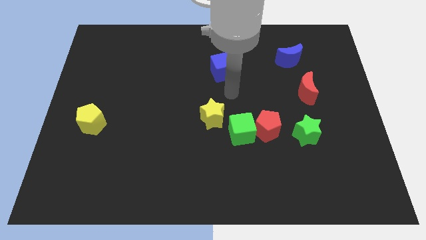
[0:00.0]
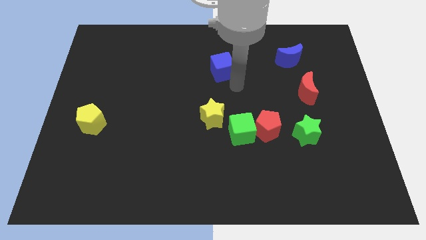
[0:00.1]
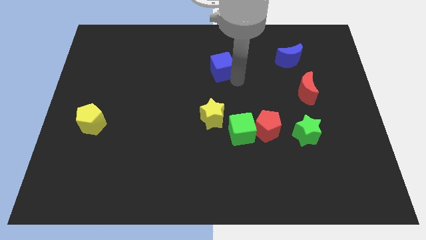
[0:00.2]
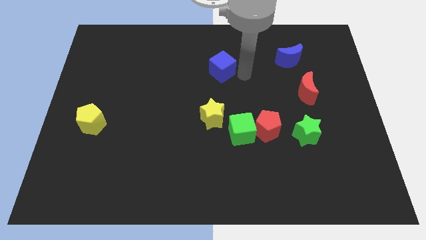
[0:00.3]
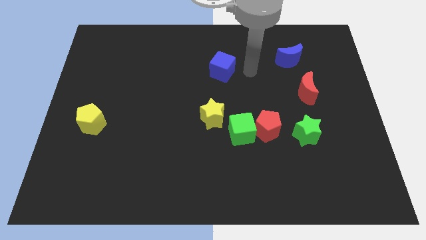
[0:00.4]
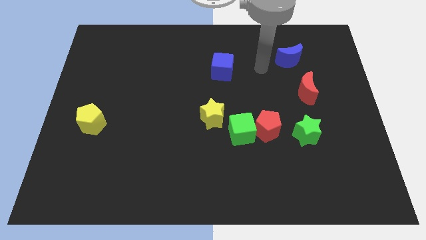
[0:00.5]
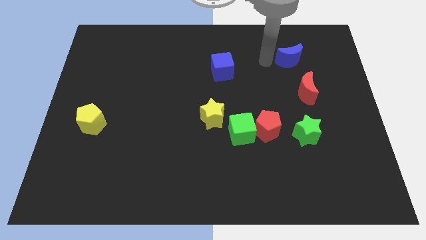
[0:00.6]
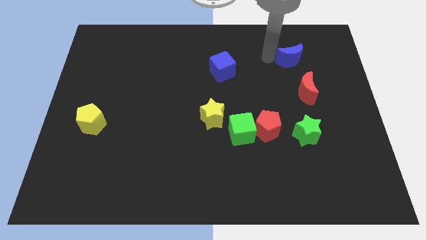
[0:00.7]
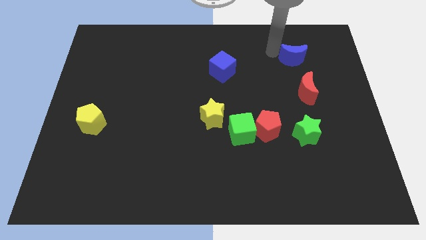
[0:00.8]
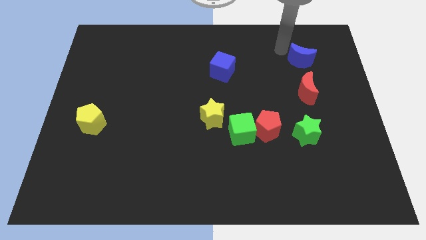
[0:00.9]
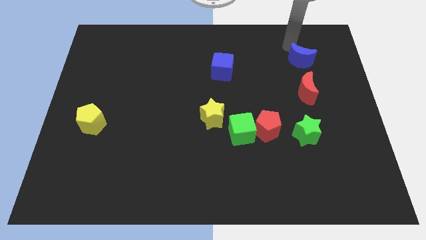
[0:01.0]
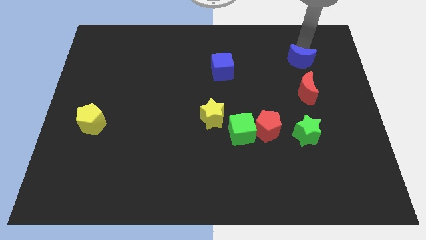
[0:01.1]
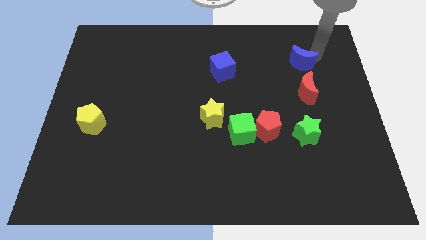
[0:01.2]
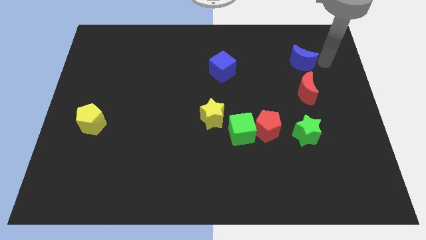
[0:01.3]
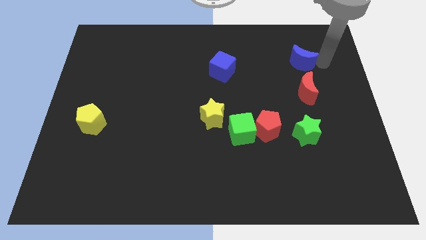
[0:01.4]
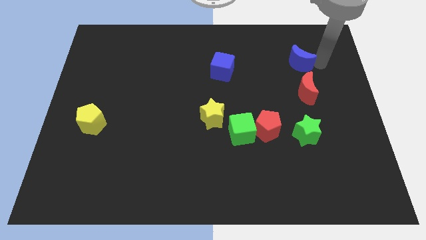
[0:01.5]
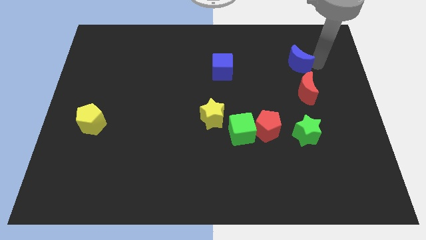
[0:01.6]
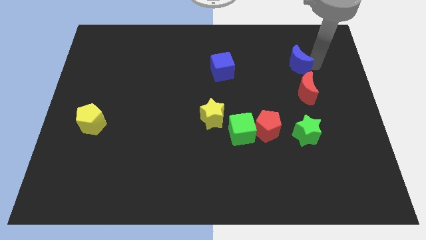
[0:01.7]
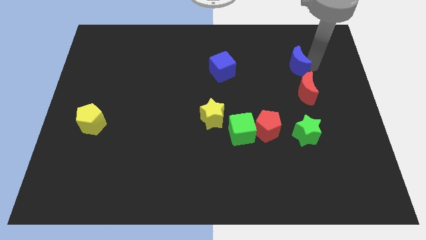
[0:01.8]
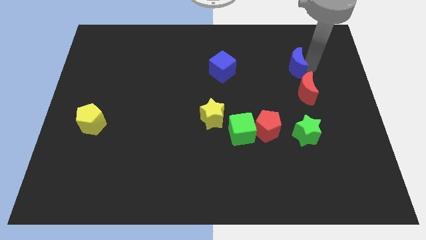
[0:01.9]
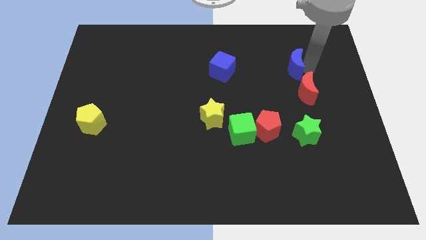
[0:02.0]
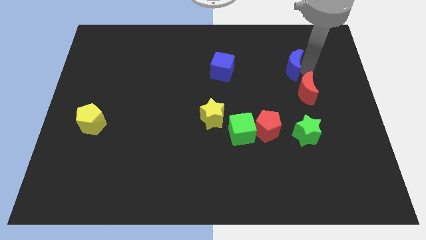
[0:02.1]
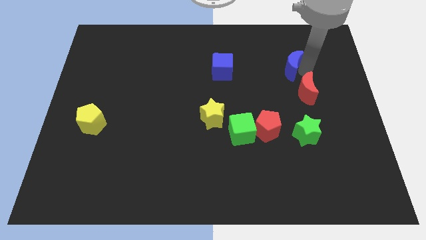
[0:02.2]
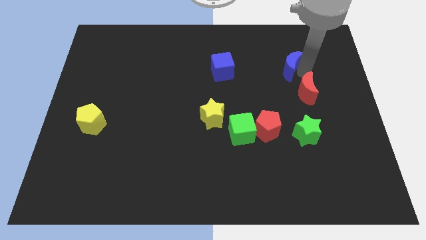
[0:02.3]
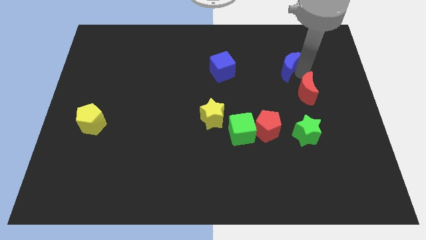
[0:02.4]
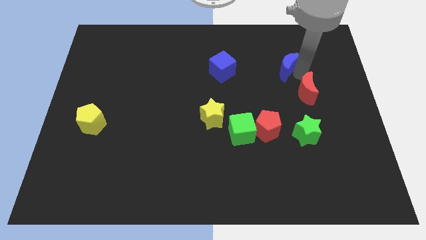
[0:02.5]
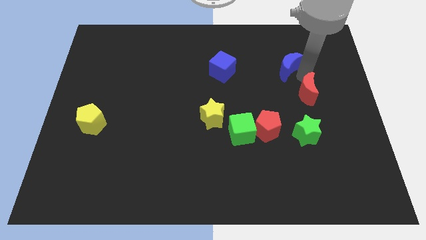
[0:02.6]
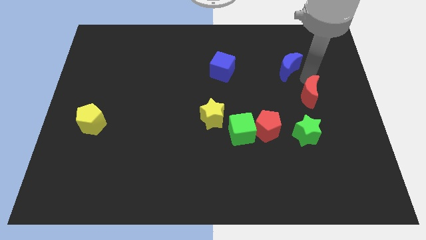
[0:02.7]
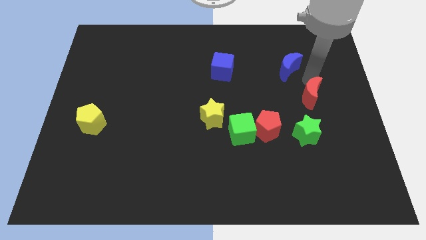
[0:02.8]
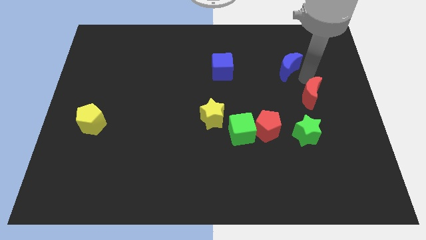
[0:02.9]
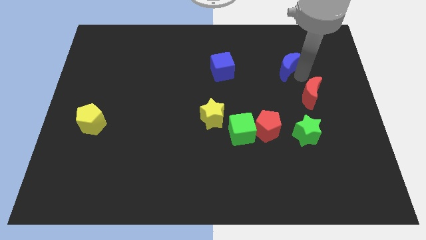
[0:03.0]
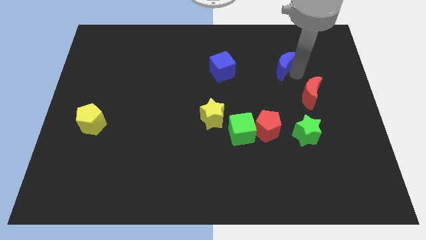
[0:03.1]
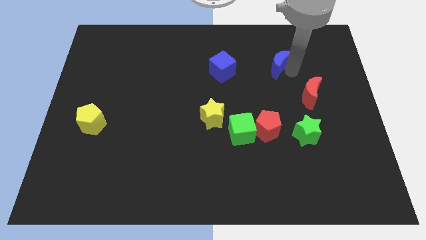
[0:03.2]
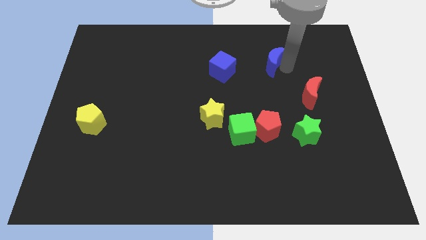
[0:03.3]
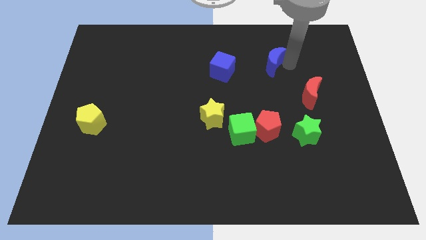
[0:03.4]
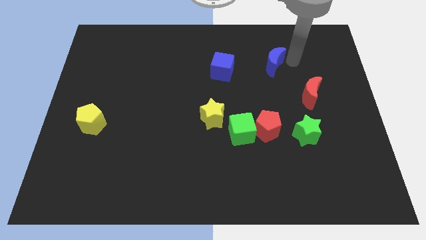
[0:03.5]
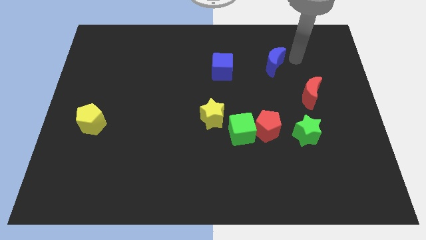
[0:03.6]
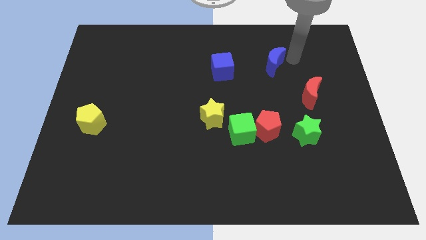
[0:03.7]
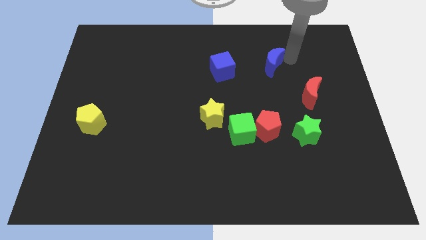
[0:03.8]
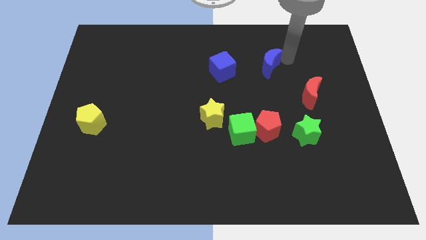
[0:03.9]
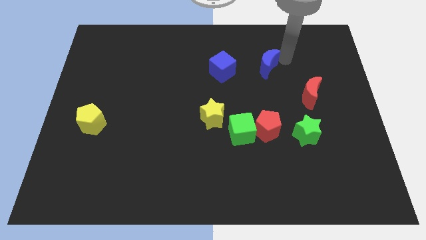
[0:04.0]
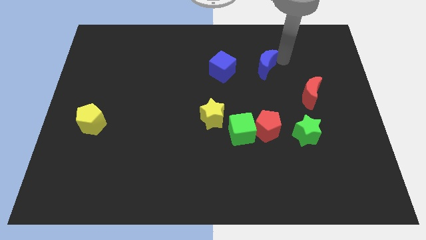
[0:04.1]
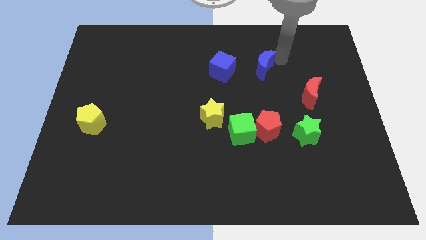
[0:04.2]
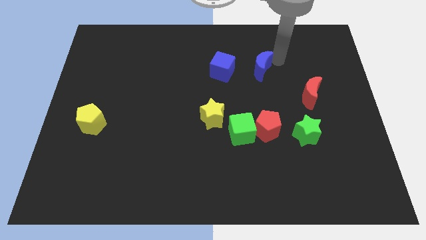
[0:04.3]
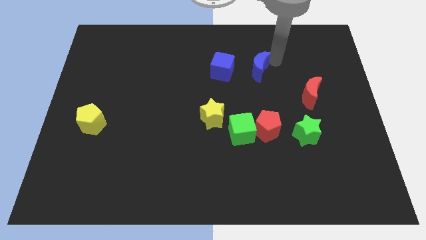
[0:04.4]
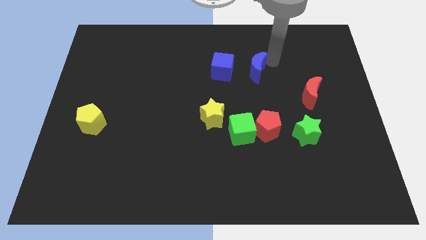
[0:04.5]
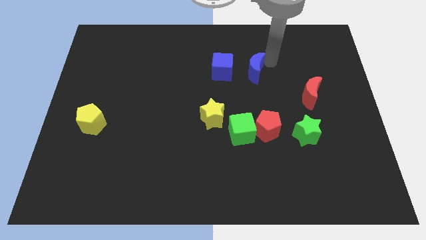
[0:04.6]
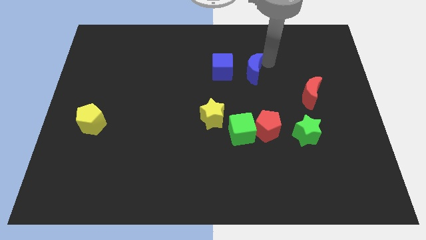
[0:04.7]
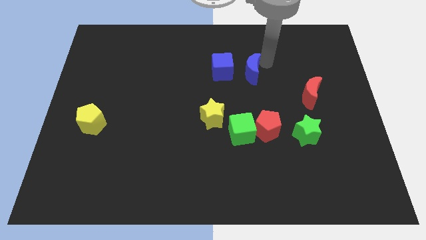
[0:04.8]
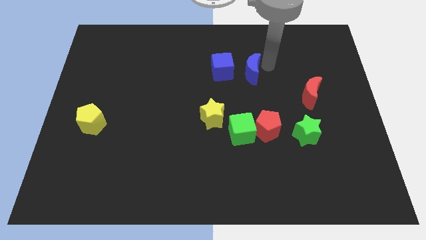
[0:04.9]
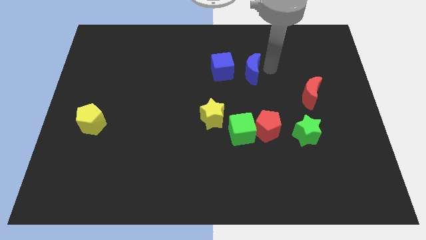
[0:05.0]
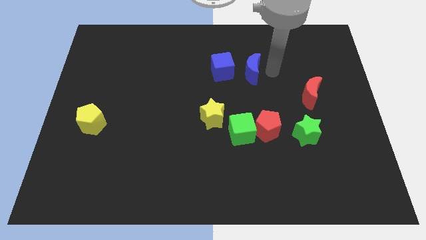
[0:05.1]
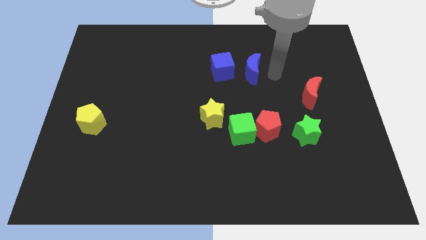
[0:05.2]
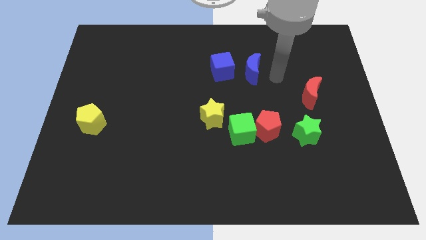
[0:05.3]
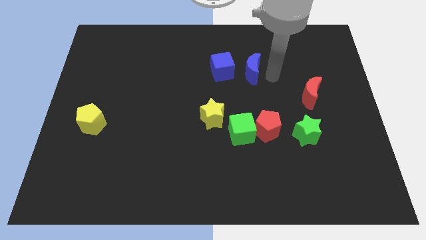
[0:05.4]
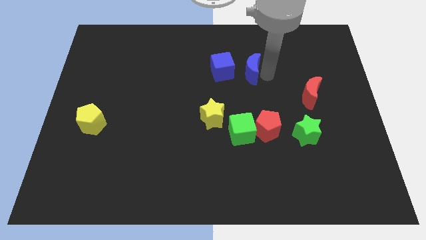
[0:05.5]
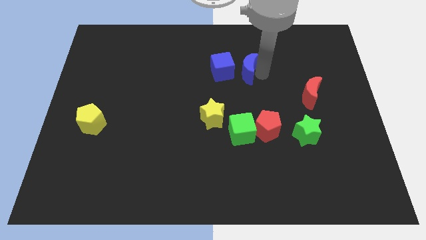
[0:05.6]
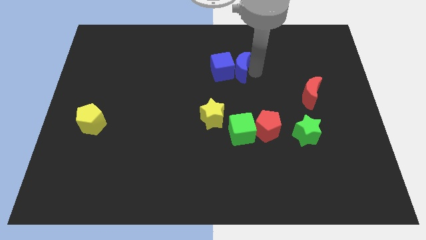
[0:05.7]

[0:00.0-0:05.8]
put the blue moon close to the blue cube

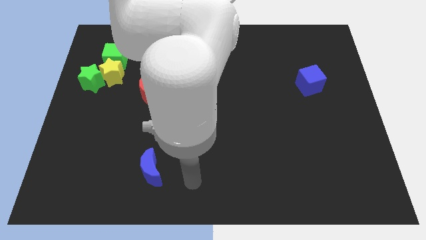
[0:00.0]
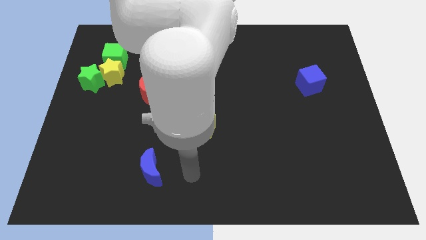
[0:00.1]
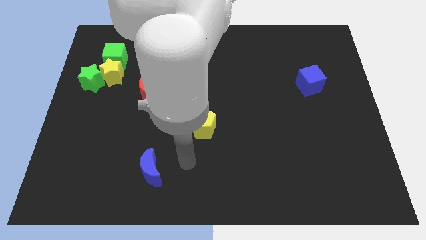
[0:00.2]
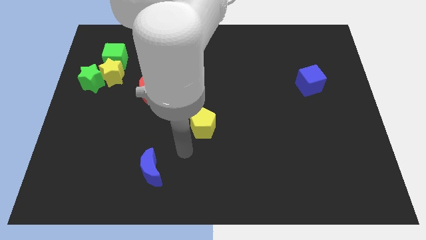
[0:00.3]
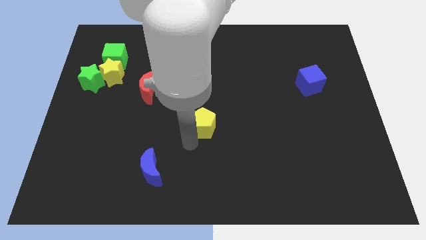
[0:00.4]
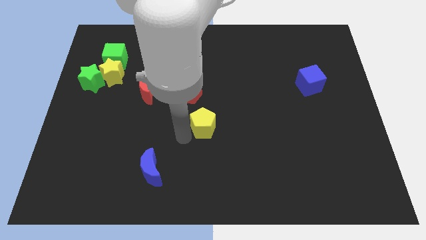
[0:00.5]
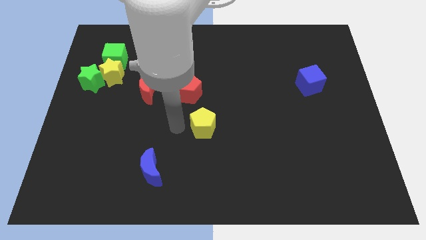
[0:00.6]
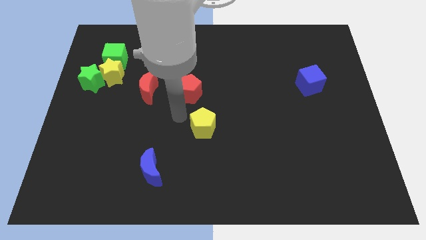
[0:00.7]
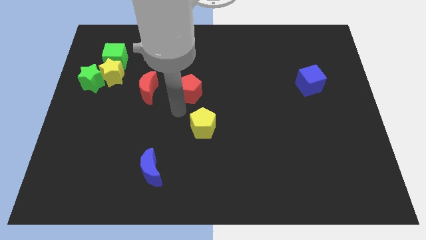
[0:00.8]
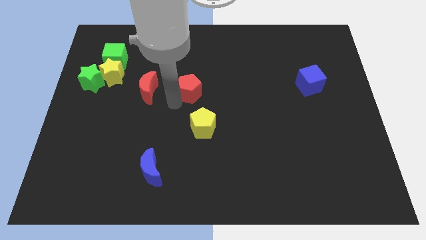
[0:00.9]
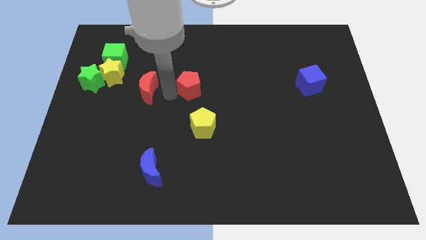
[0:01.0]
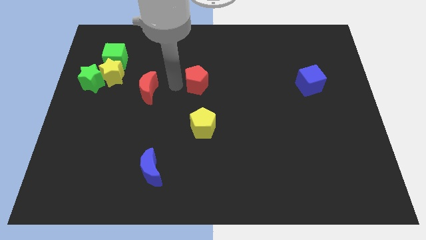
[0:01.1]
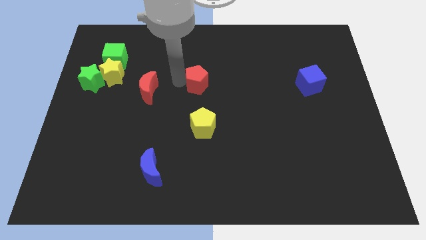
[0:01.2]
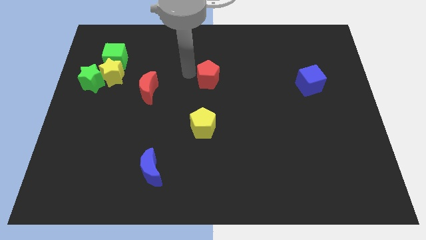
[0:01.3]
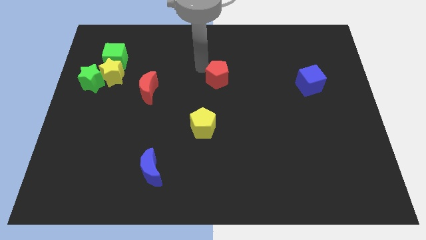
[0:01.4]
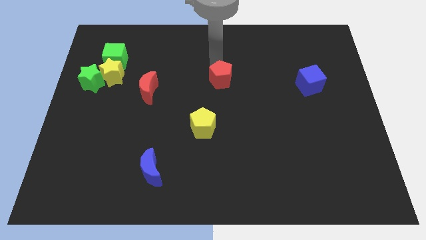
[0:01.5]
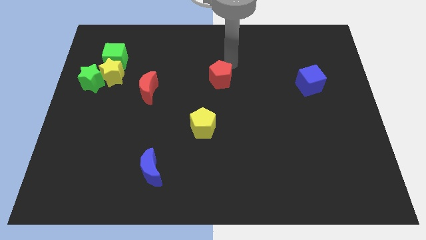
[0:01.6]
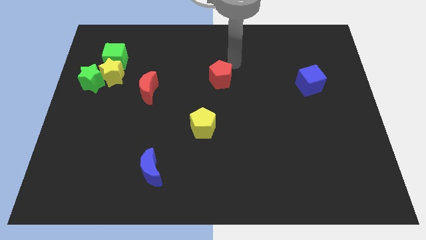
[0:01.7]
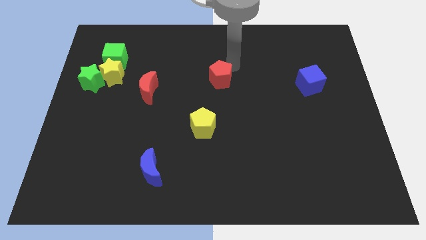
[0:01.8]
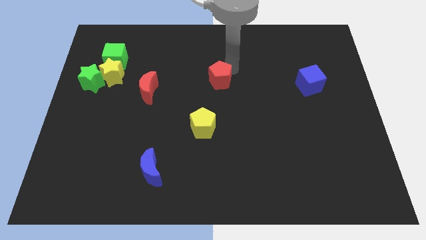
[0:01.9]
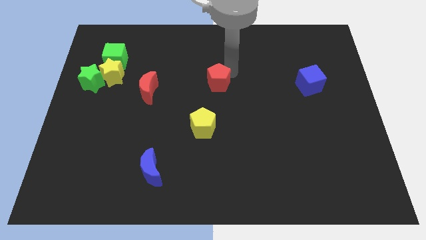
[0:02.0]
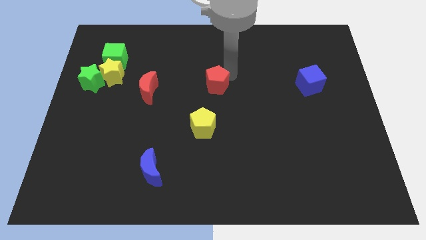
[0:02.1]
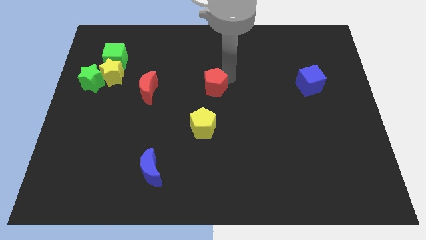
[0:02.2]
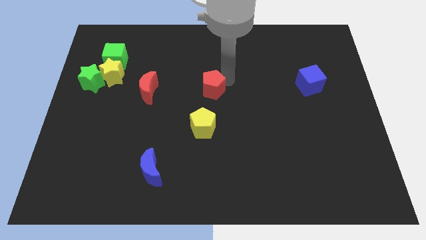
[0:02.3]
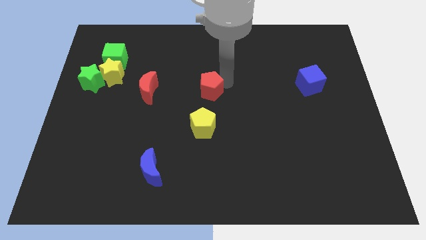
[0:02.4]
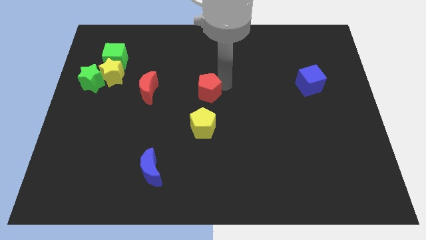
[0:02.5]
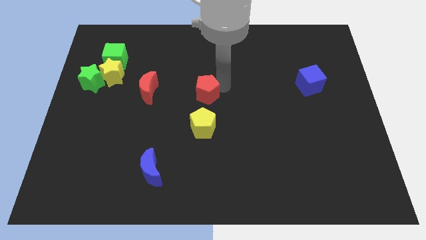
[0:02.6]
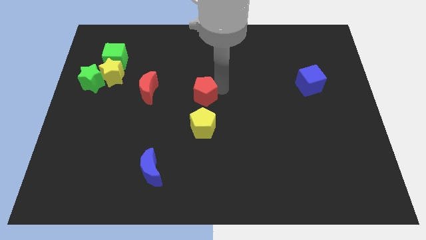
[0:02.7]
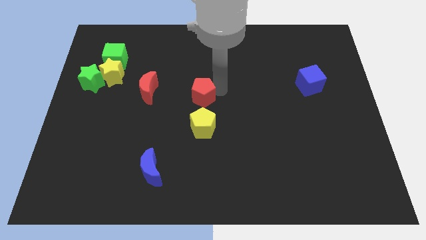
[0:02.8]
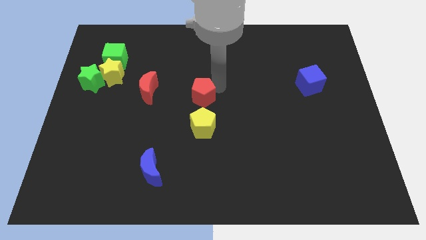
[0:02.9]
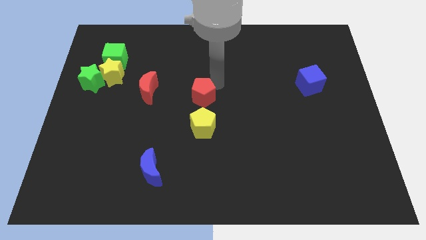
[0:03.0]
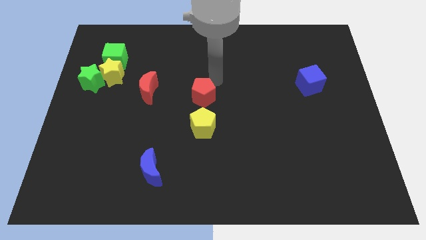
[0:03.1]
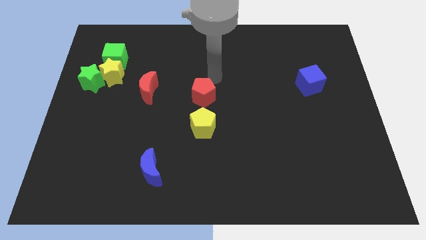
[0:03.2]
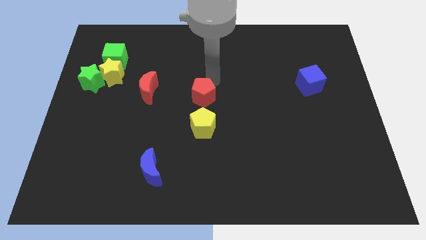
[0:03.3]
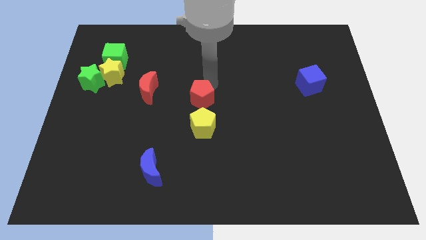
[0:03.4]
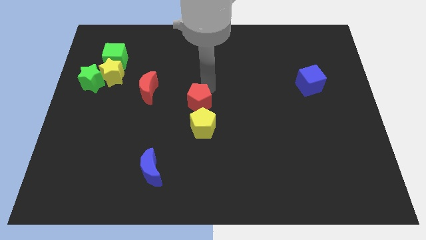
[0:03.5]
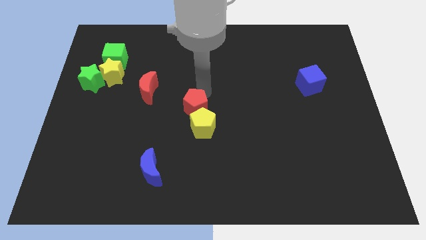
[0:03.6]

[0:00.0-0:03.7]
put the red pentagon towards the yellow pentagon
